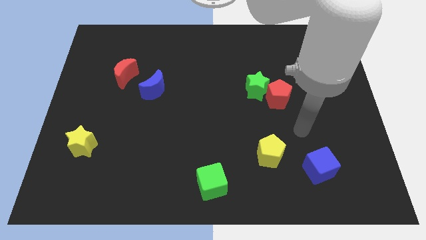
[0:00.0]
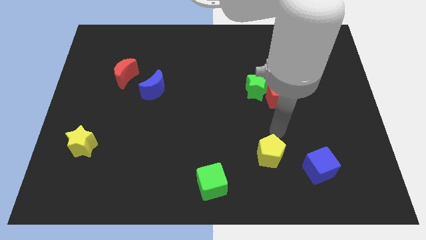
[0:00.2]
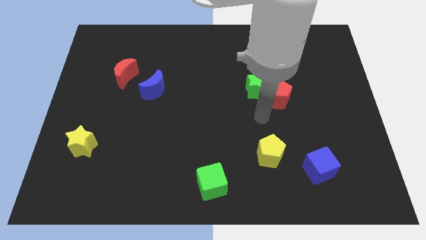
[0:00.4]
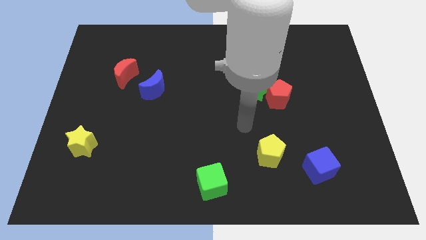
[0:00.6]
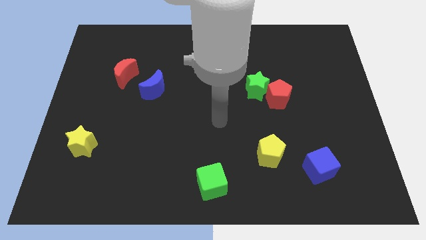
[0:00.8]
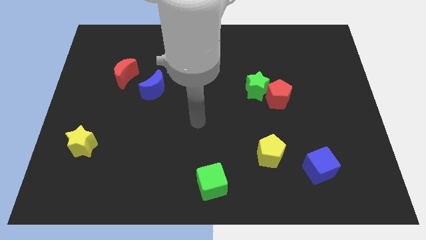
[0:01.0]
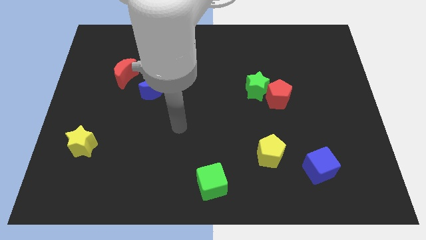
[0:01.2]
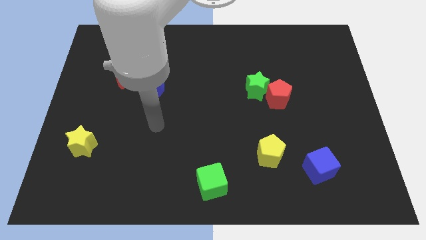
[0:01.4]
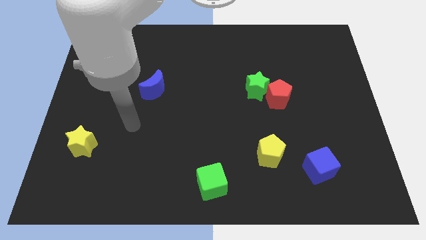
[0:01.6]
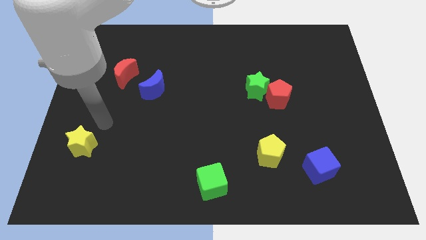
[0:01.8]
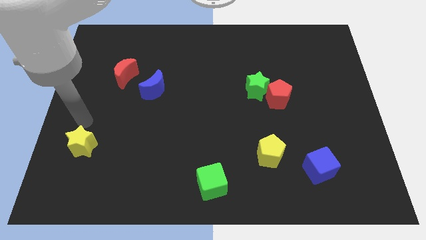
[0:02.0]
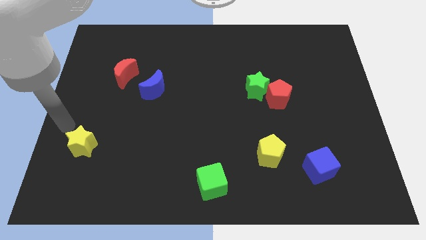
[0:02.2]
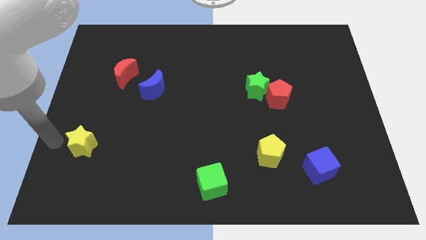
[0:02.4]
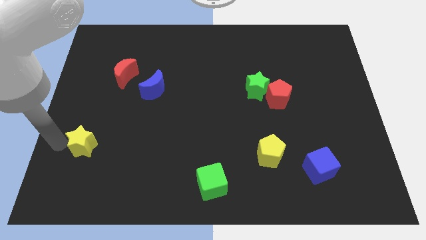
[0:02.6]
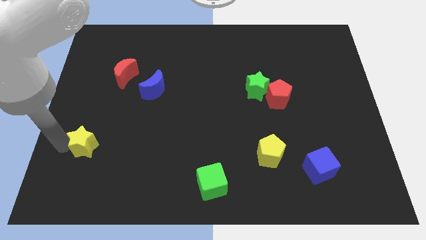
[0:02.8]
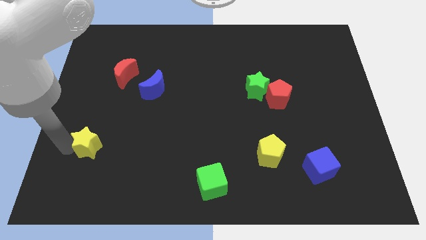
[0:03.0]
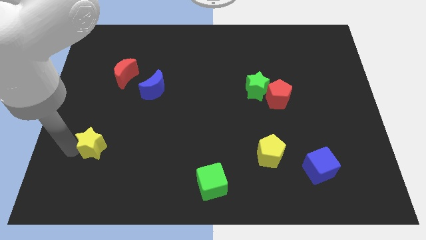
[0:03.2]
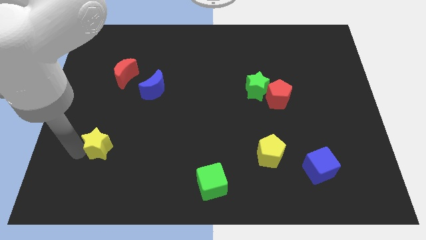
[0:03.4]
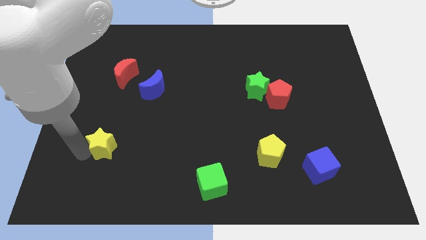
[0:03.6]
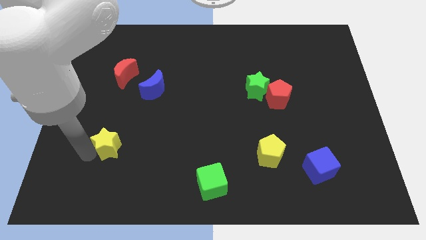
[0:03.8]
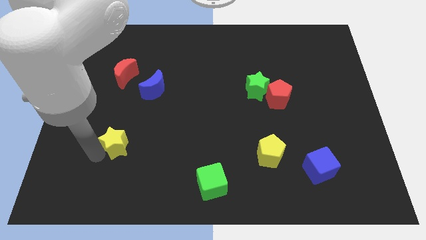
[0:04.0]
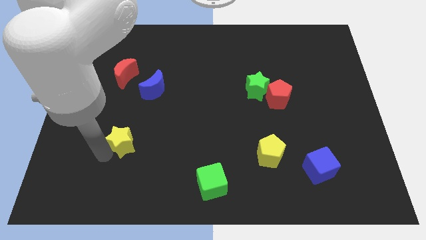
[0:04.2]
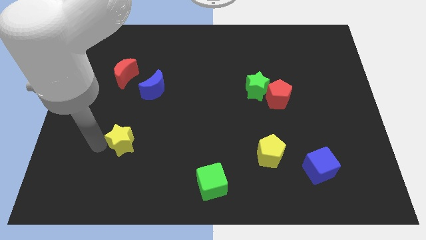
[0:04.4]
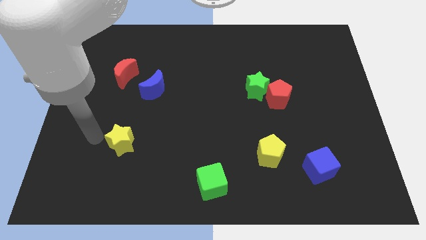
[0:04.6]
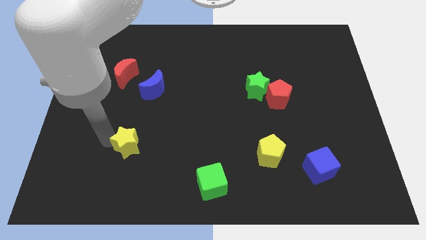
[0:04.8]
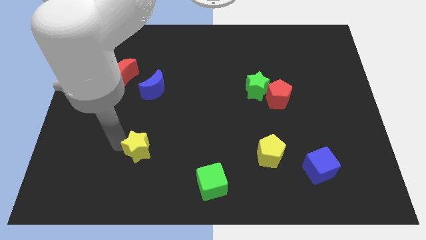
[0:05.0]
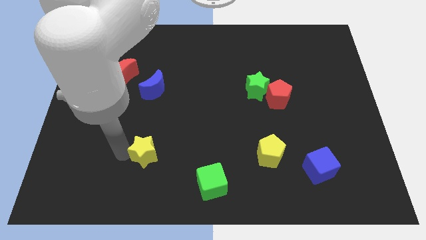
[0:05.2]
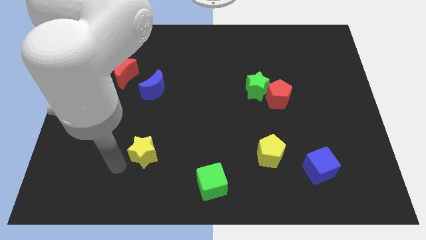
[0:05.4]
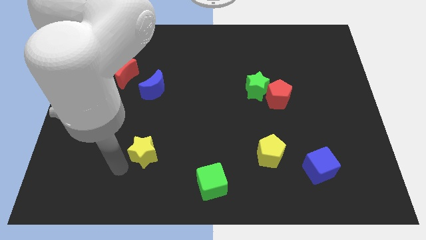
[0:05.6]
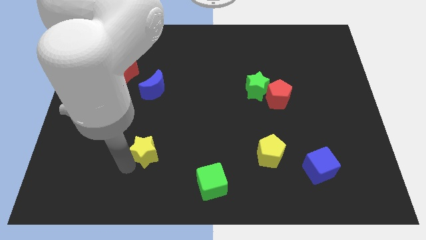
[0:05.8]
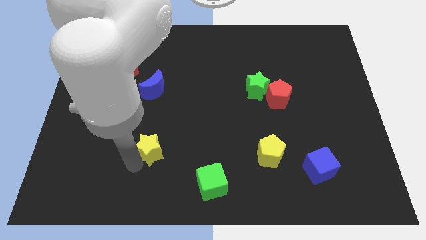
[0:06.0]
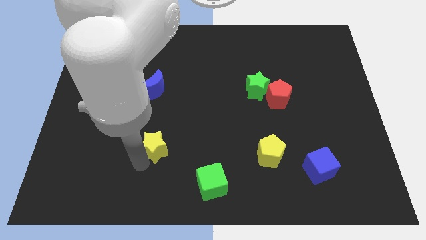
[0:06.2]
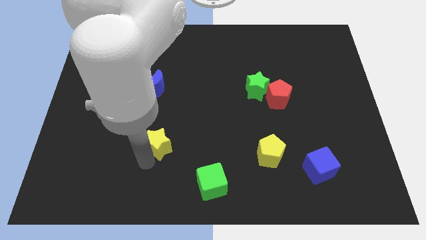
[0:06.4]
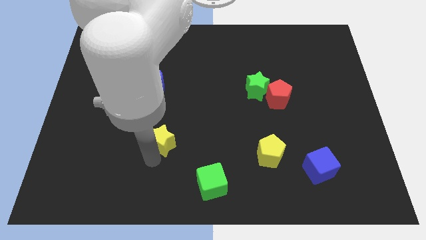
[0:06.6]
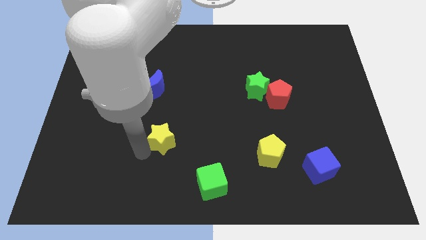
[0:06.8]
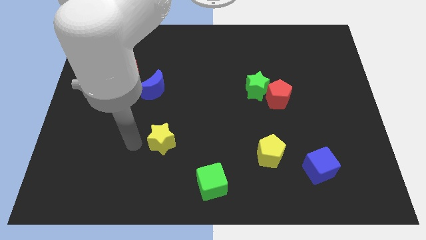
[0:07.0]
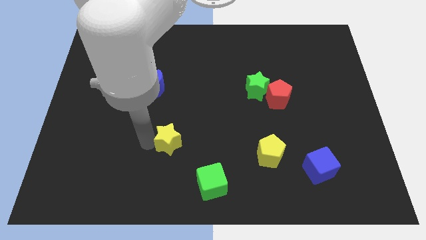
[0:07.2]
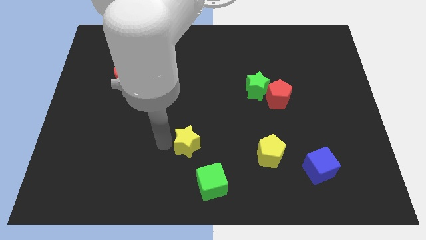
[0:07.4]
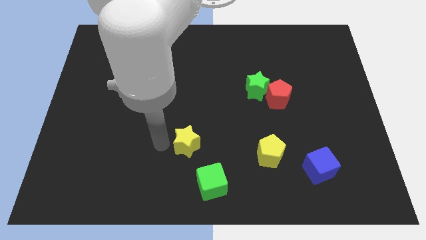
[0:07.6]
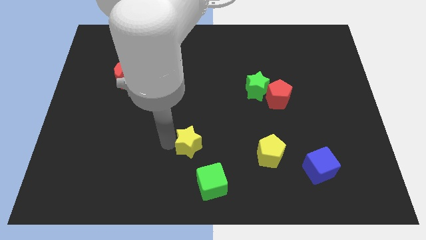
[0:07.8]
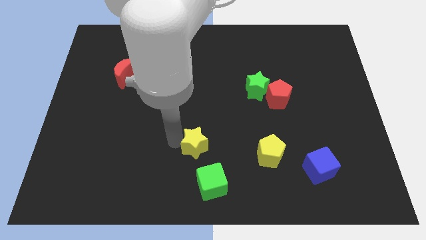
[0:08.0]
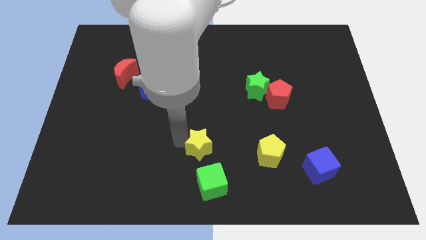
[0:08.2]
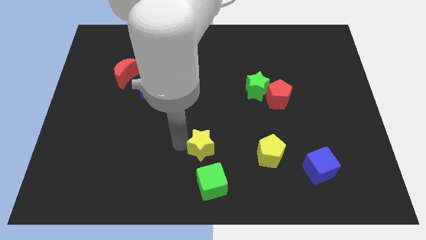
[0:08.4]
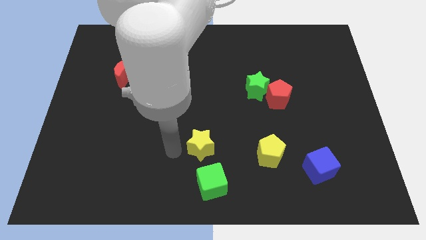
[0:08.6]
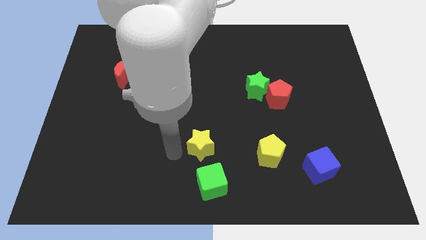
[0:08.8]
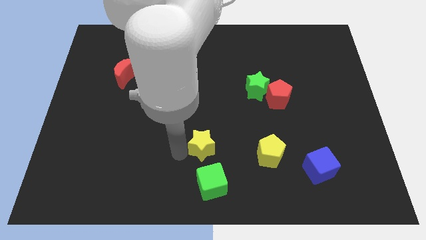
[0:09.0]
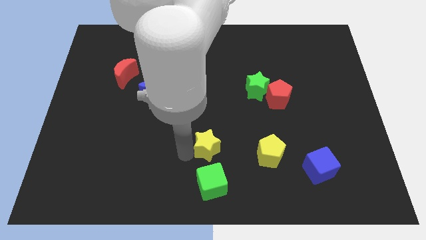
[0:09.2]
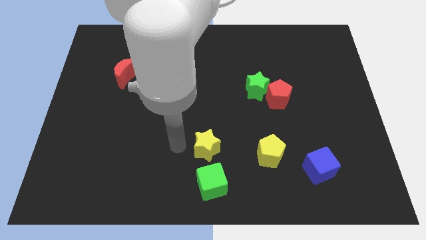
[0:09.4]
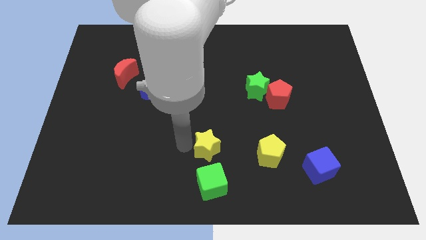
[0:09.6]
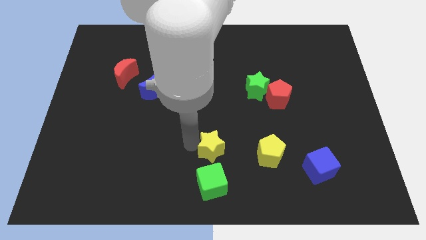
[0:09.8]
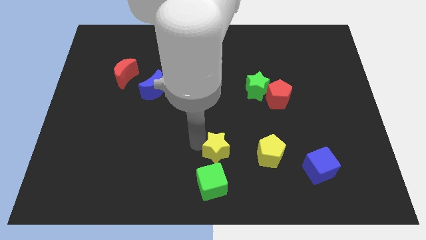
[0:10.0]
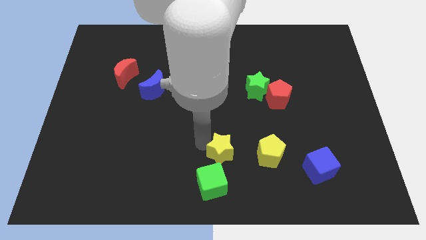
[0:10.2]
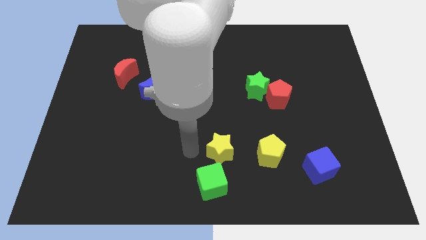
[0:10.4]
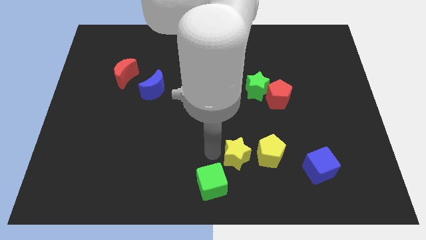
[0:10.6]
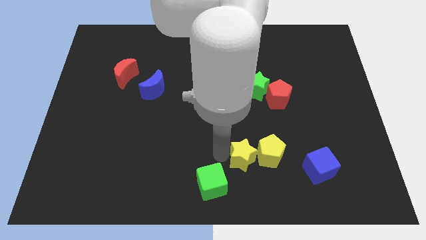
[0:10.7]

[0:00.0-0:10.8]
slide the yellow star to the yellow pentagon

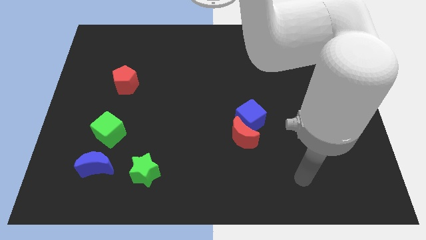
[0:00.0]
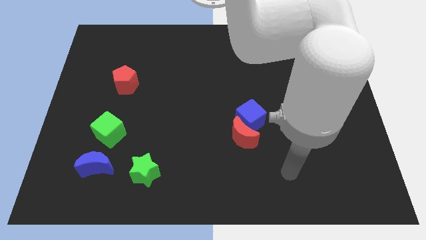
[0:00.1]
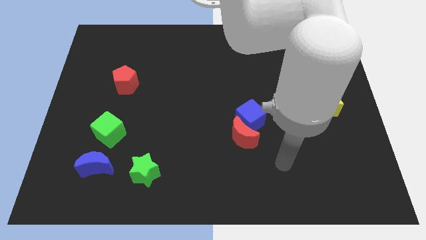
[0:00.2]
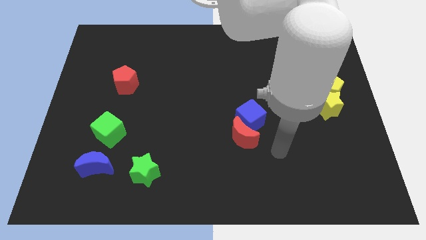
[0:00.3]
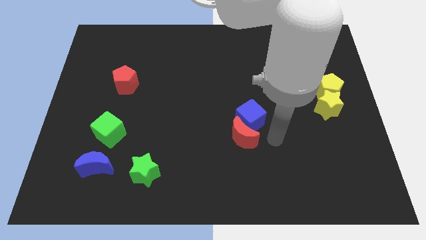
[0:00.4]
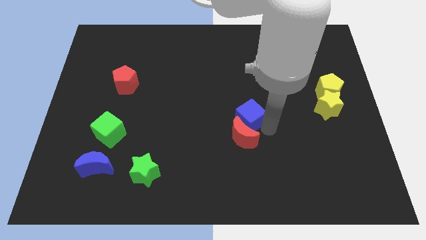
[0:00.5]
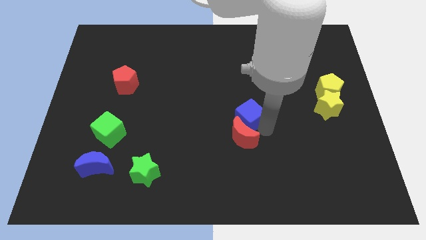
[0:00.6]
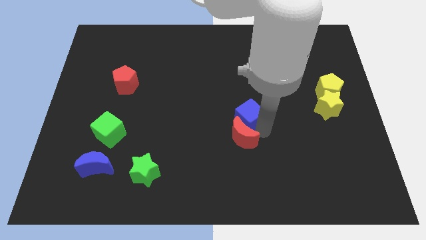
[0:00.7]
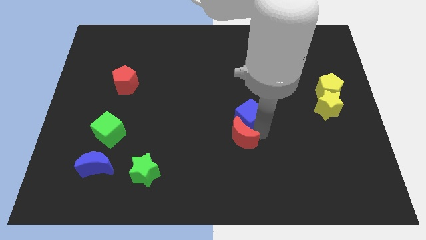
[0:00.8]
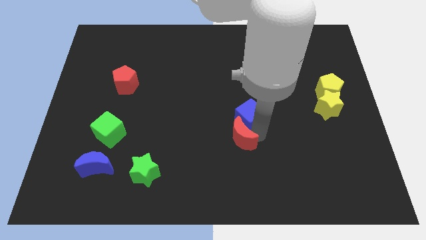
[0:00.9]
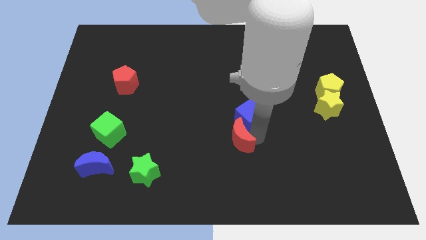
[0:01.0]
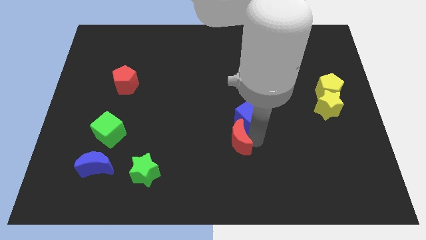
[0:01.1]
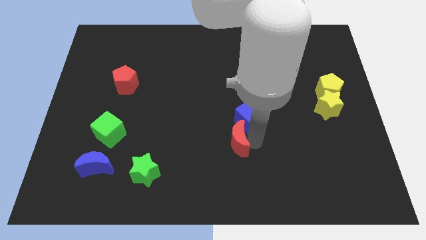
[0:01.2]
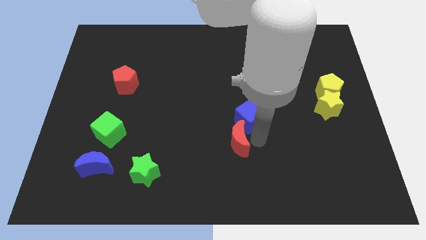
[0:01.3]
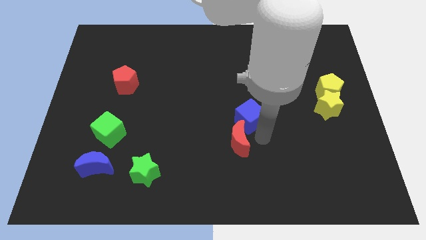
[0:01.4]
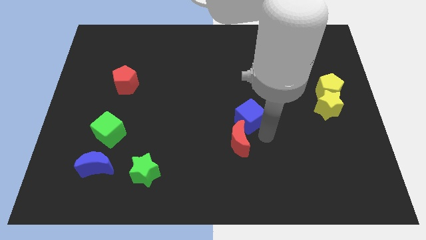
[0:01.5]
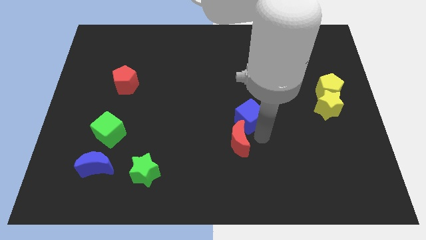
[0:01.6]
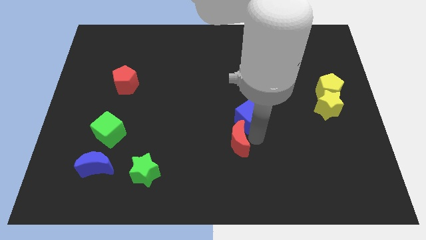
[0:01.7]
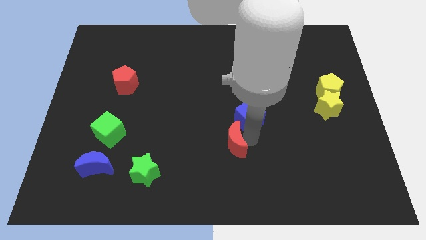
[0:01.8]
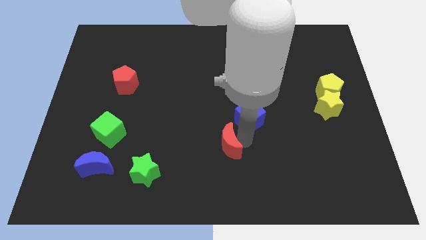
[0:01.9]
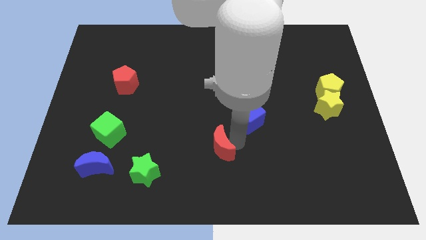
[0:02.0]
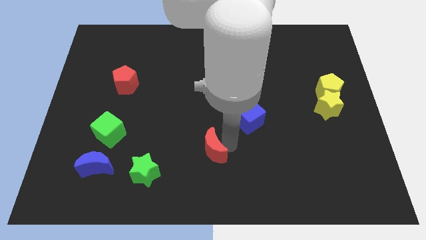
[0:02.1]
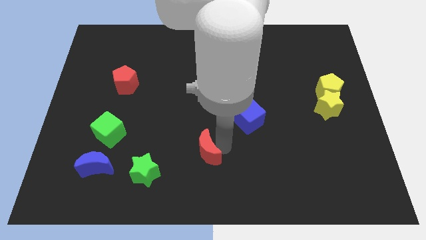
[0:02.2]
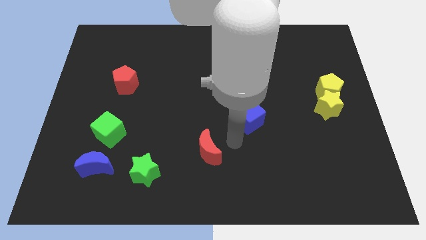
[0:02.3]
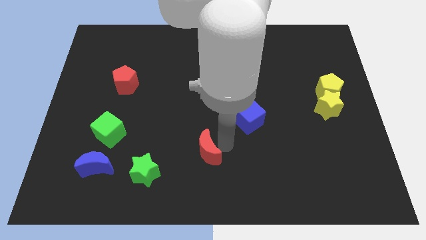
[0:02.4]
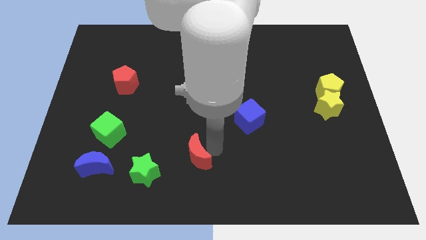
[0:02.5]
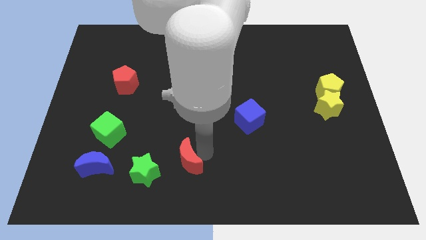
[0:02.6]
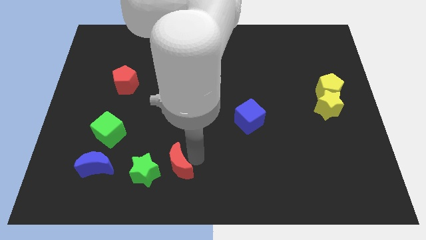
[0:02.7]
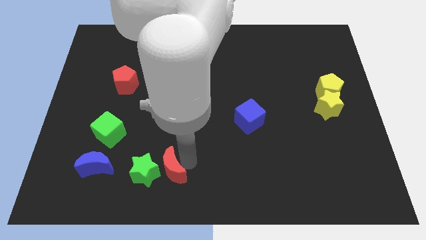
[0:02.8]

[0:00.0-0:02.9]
move the red moon close to the green star
